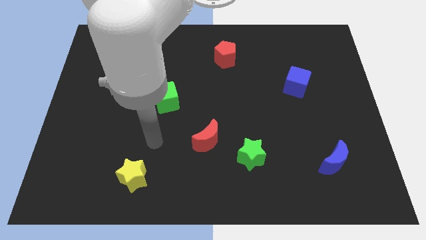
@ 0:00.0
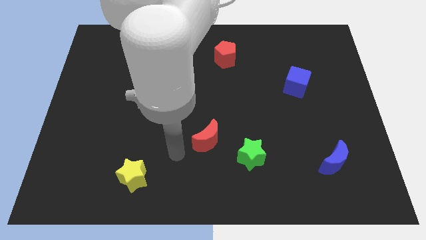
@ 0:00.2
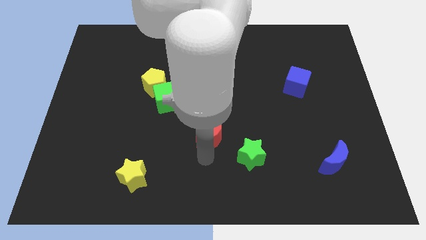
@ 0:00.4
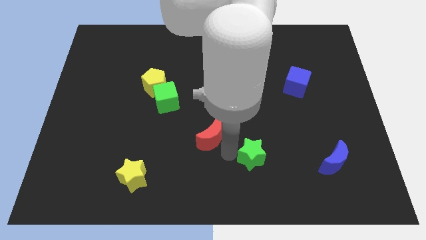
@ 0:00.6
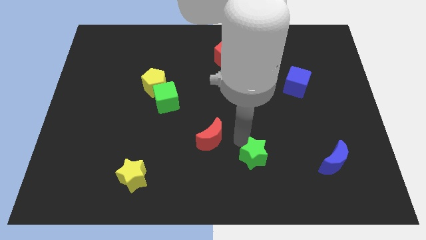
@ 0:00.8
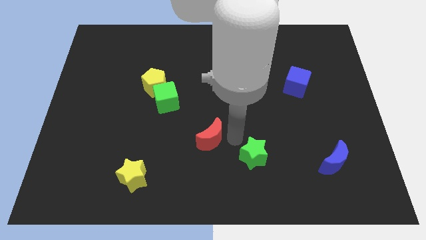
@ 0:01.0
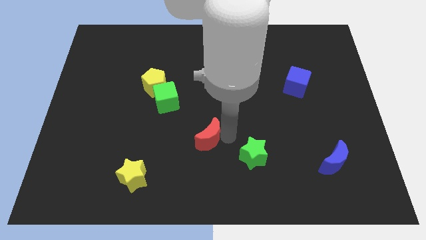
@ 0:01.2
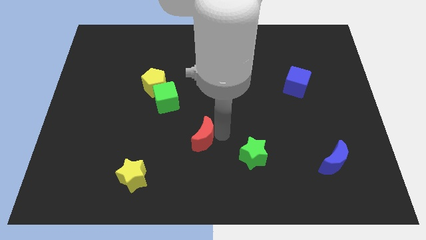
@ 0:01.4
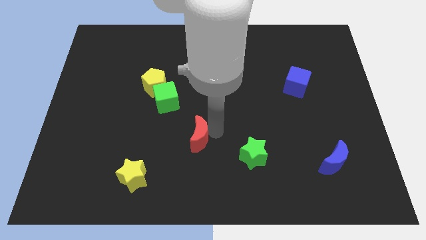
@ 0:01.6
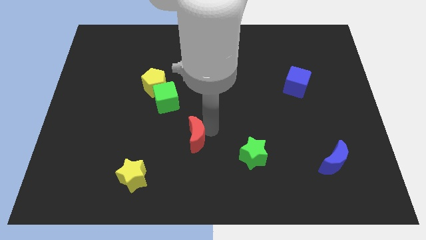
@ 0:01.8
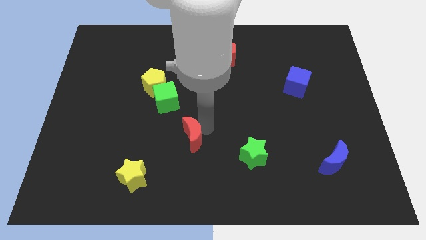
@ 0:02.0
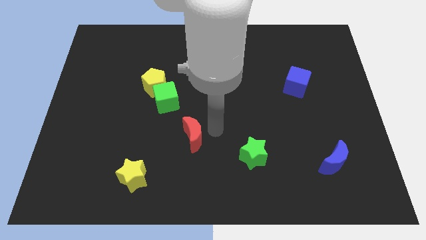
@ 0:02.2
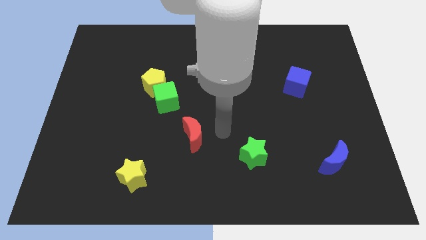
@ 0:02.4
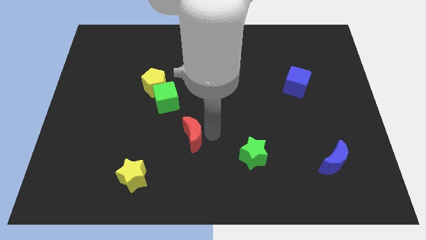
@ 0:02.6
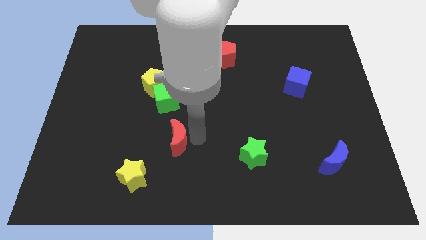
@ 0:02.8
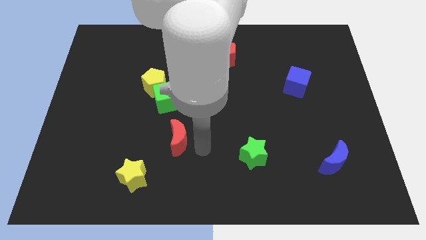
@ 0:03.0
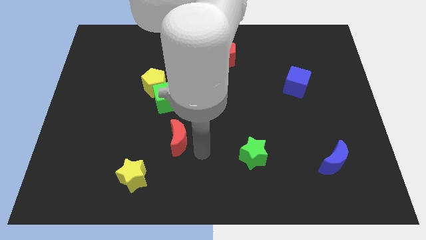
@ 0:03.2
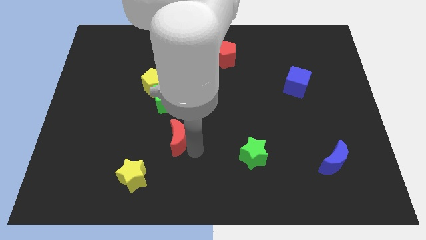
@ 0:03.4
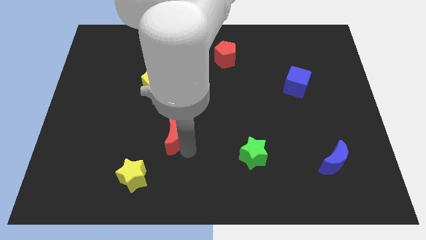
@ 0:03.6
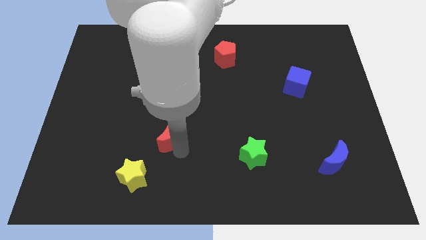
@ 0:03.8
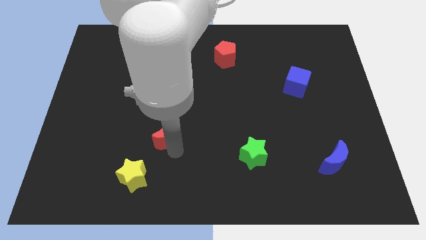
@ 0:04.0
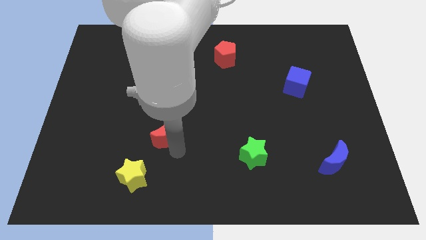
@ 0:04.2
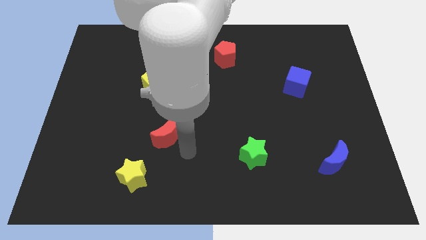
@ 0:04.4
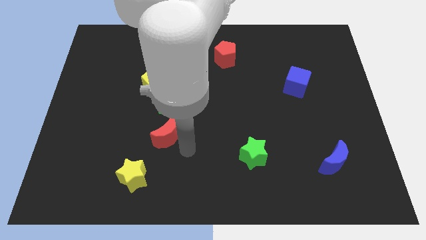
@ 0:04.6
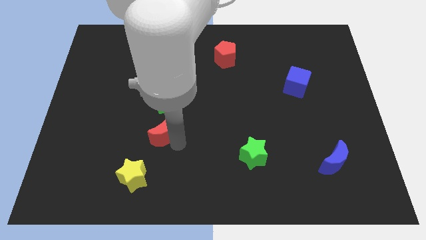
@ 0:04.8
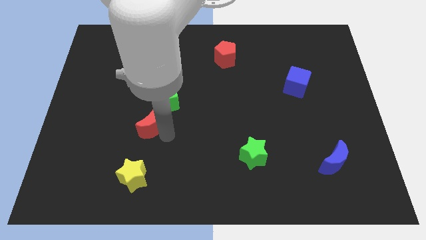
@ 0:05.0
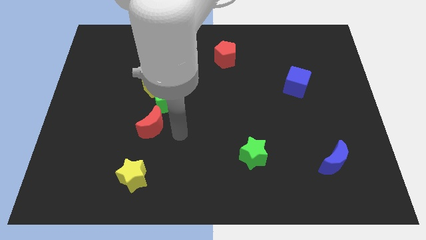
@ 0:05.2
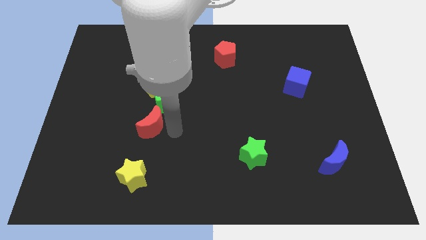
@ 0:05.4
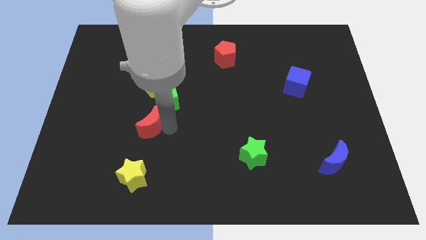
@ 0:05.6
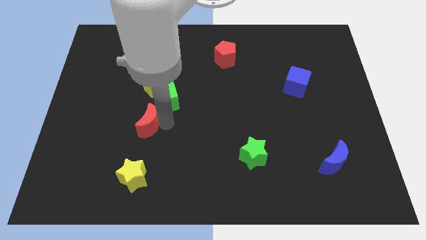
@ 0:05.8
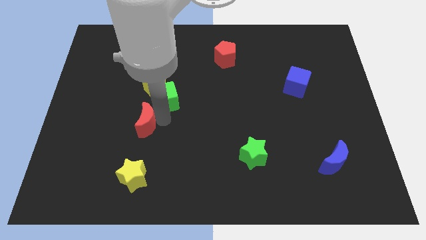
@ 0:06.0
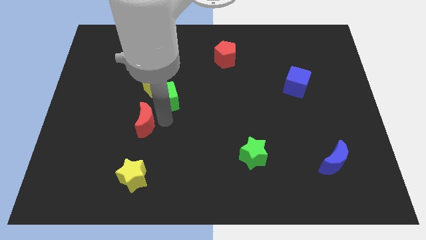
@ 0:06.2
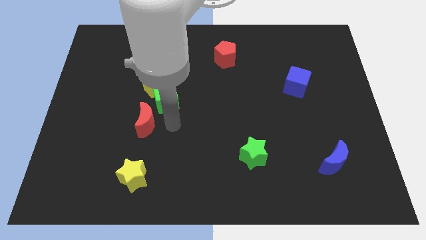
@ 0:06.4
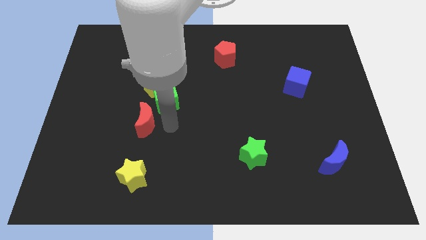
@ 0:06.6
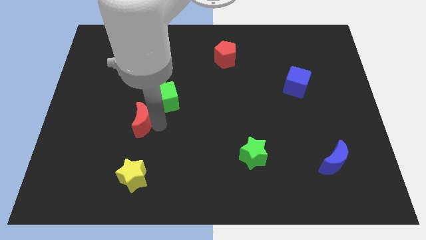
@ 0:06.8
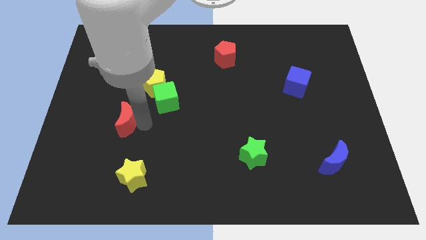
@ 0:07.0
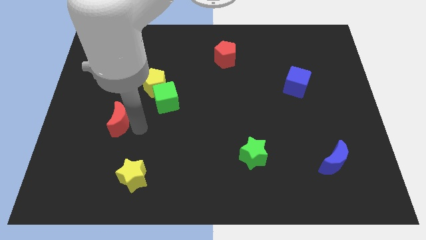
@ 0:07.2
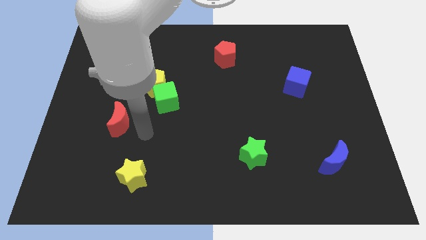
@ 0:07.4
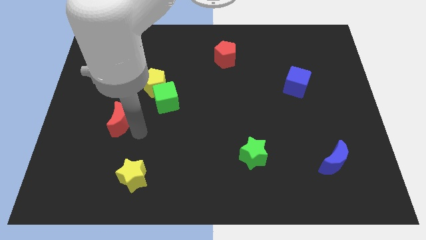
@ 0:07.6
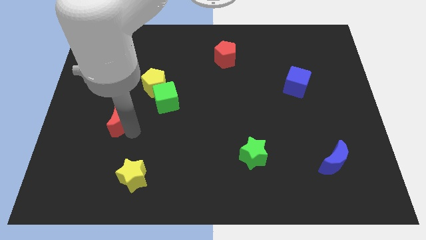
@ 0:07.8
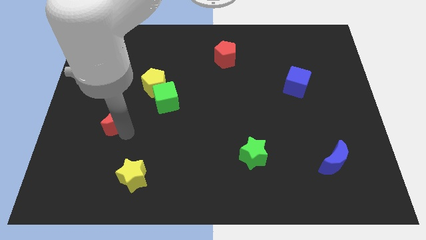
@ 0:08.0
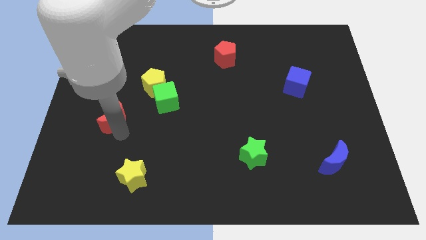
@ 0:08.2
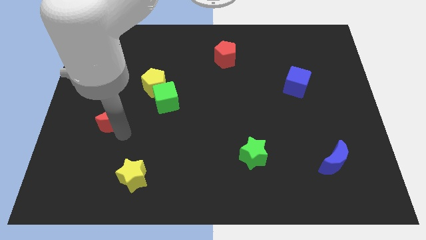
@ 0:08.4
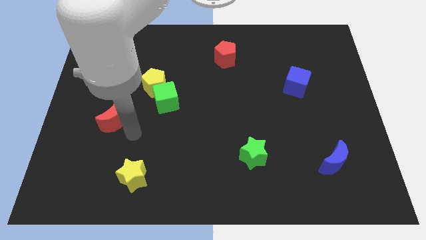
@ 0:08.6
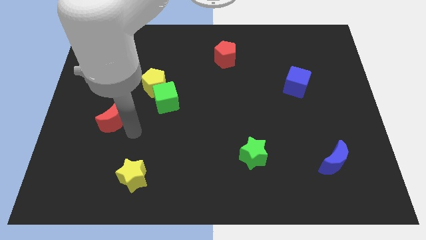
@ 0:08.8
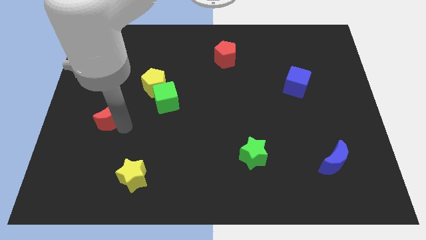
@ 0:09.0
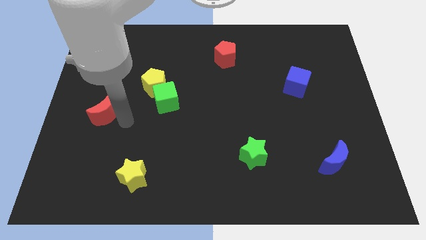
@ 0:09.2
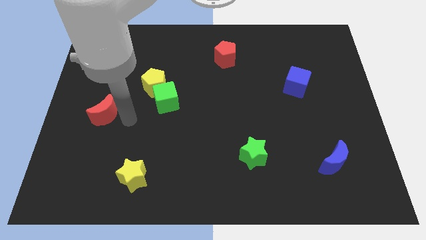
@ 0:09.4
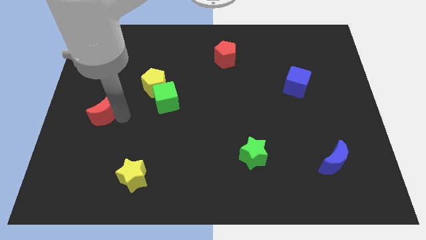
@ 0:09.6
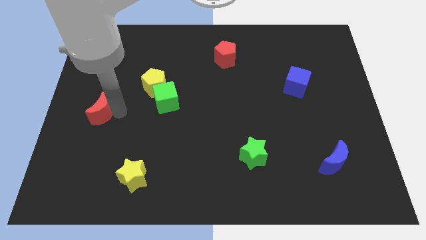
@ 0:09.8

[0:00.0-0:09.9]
move the red moon to the left side

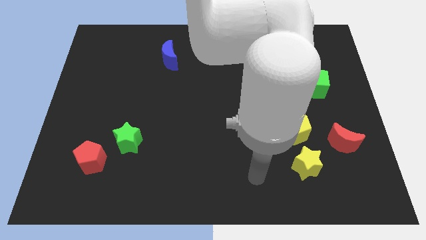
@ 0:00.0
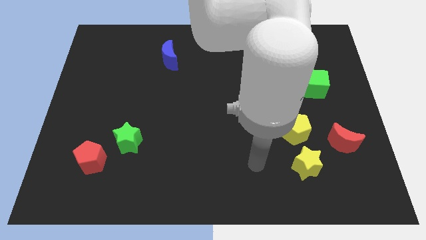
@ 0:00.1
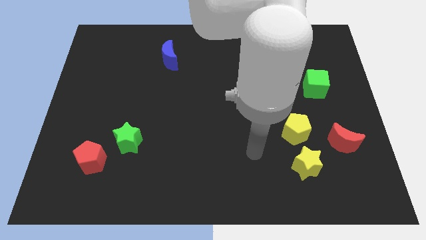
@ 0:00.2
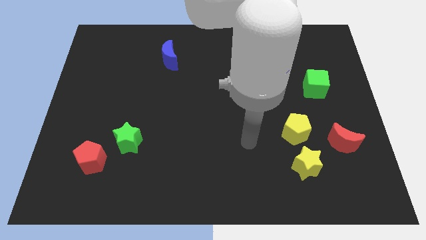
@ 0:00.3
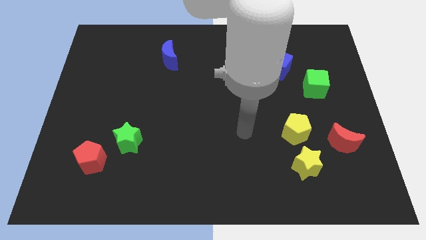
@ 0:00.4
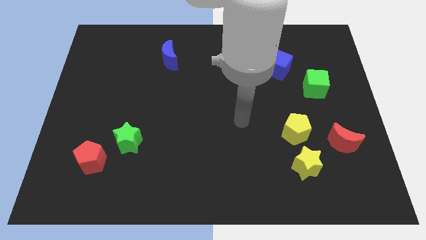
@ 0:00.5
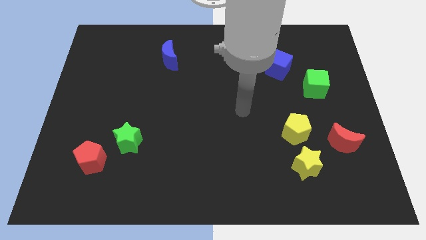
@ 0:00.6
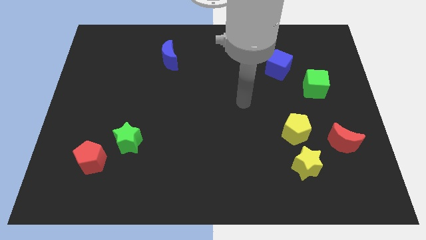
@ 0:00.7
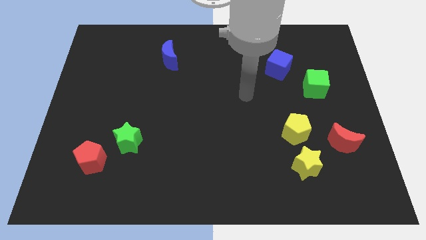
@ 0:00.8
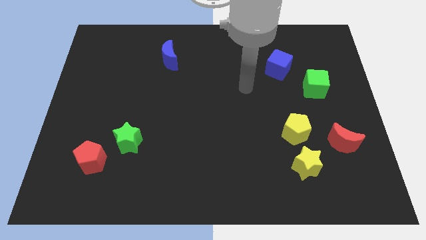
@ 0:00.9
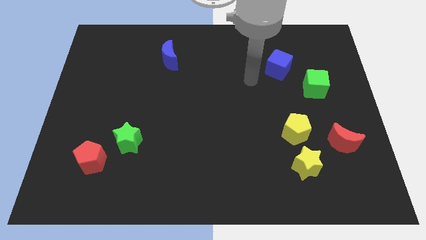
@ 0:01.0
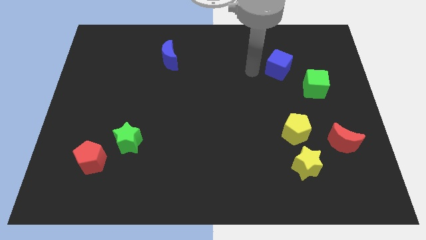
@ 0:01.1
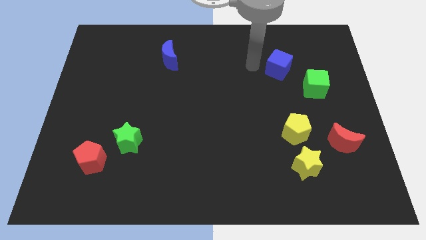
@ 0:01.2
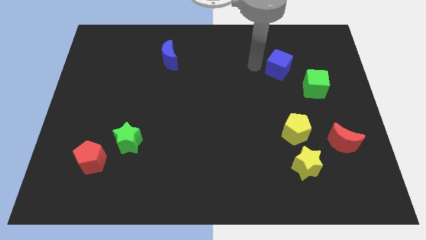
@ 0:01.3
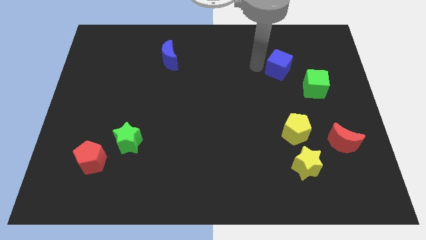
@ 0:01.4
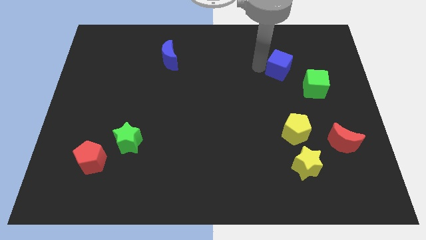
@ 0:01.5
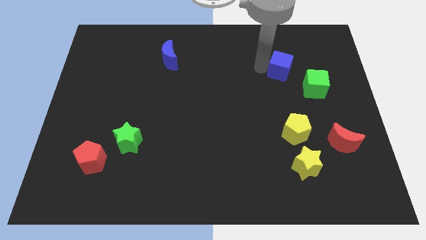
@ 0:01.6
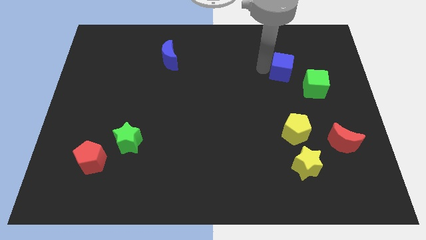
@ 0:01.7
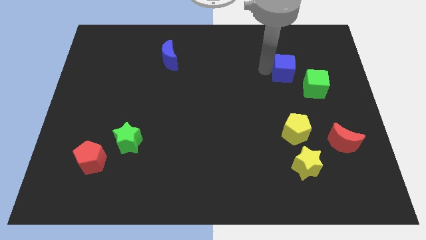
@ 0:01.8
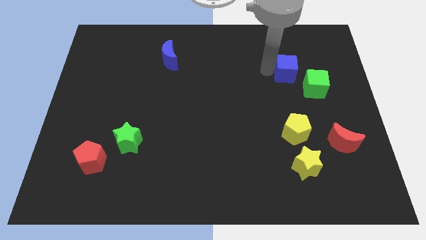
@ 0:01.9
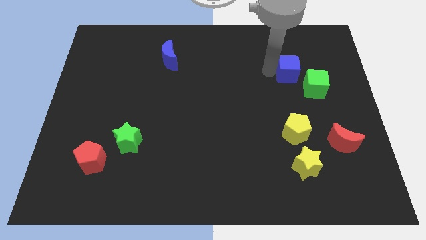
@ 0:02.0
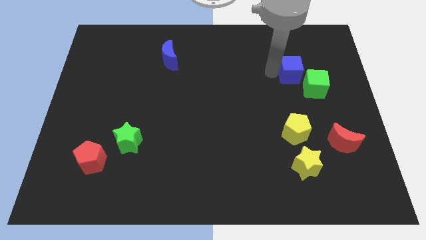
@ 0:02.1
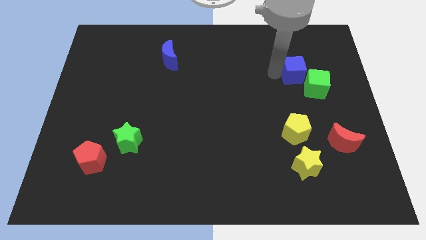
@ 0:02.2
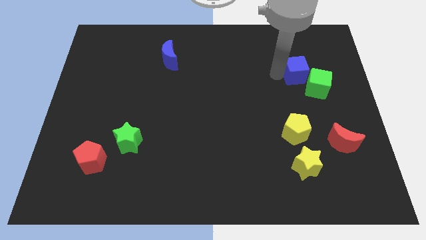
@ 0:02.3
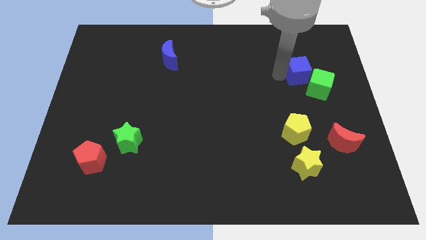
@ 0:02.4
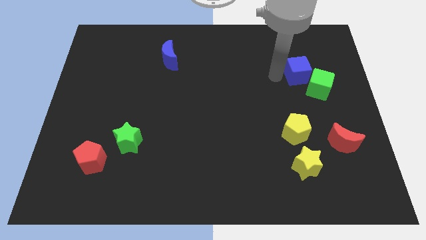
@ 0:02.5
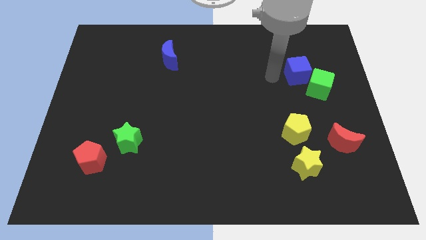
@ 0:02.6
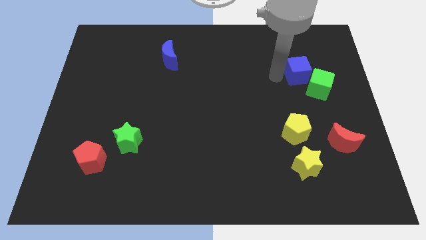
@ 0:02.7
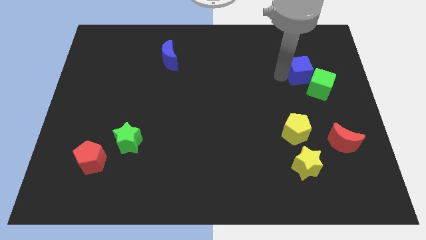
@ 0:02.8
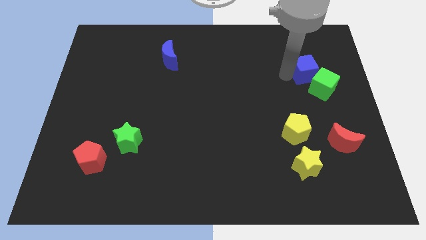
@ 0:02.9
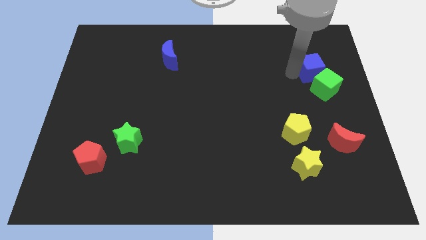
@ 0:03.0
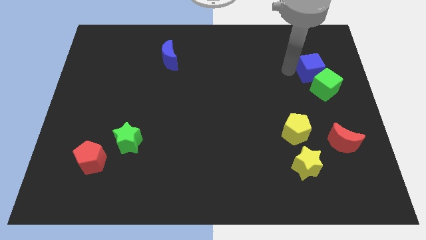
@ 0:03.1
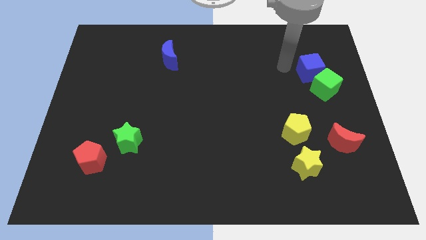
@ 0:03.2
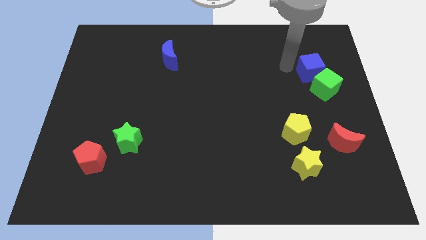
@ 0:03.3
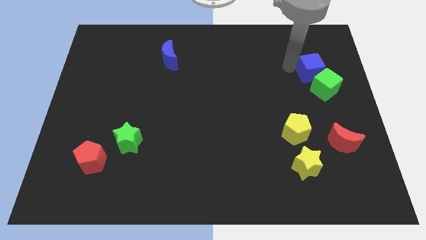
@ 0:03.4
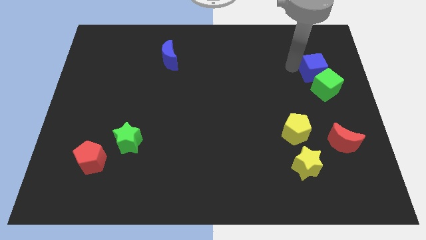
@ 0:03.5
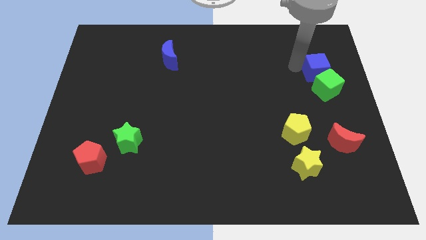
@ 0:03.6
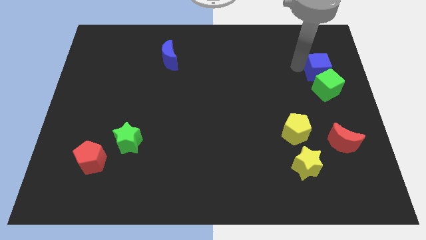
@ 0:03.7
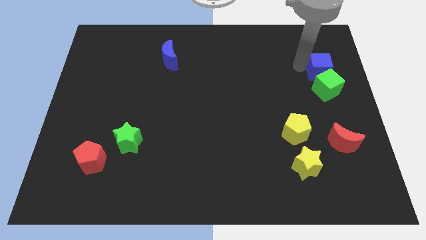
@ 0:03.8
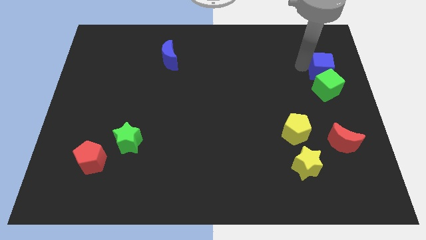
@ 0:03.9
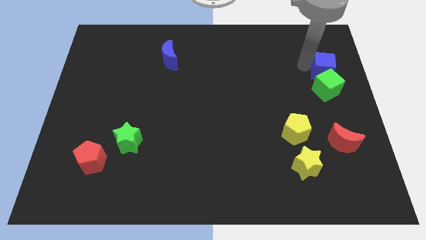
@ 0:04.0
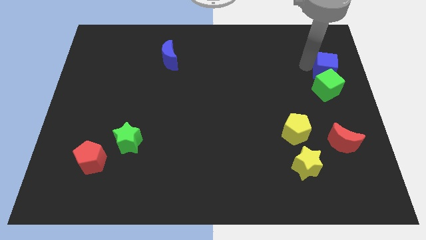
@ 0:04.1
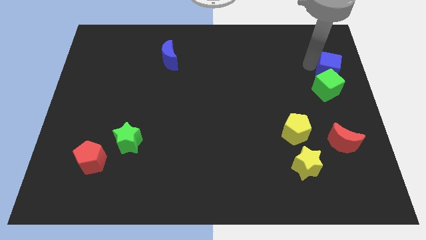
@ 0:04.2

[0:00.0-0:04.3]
push the blue cube to the right side
